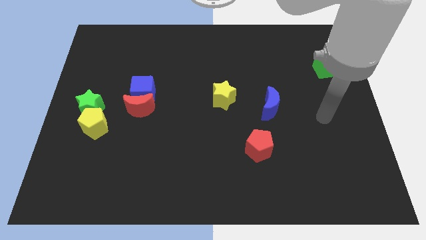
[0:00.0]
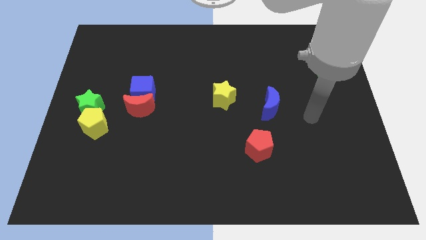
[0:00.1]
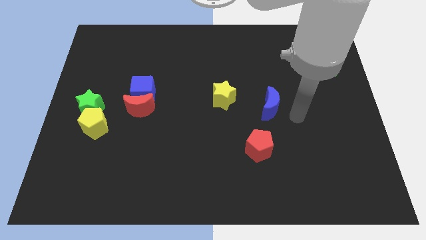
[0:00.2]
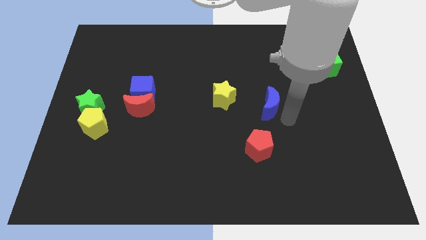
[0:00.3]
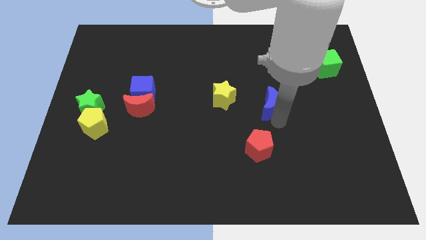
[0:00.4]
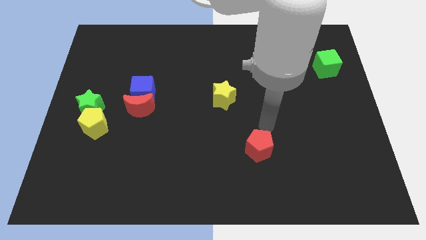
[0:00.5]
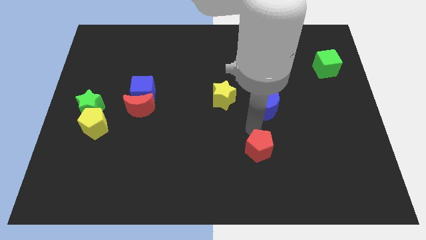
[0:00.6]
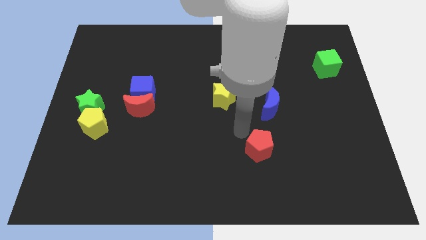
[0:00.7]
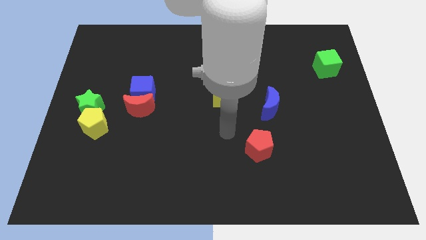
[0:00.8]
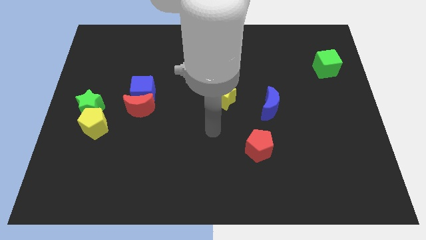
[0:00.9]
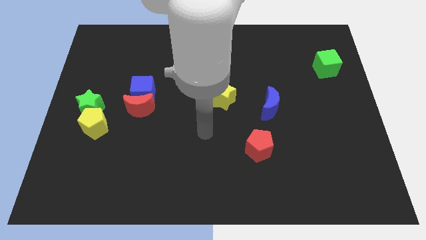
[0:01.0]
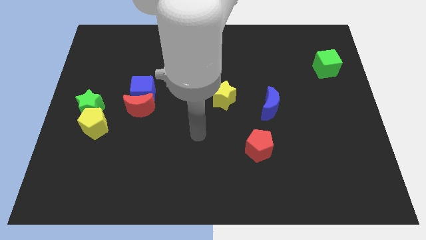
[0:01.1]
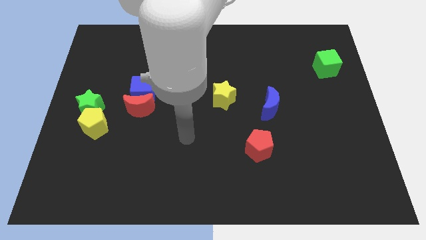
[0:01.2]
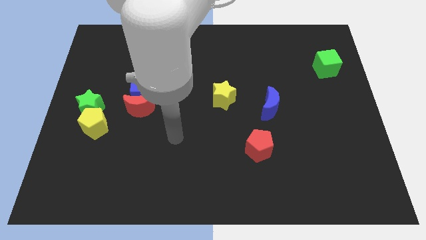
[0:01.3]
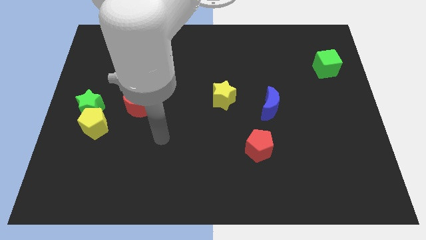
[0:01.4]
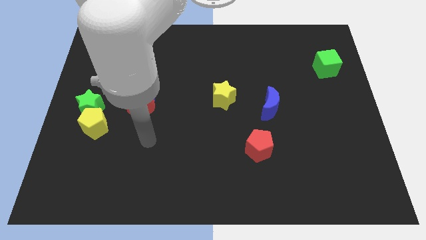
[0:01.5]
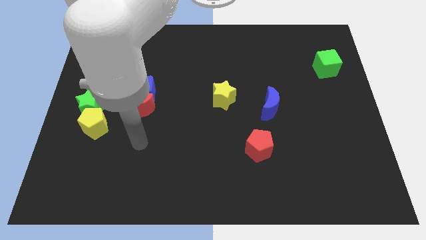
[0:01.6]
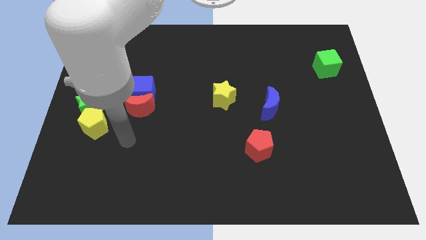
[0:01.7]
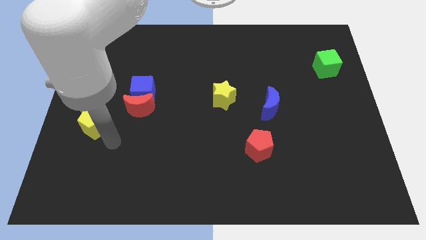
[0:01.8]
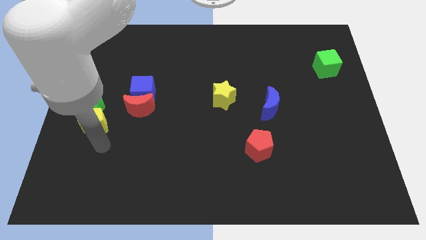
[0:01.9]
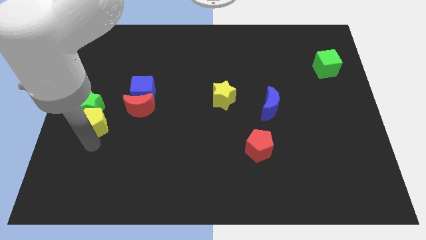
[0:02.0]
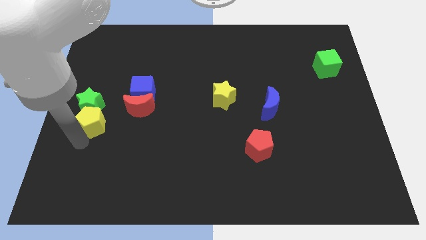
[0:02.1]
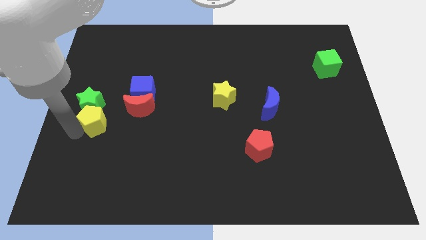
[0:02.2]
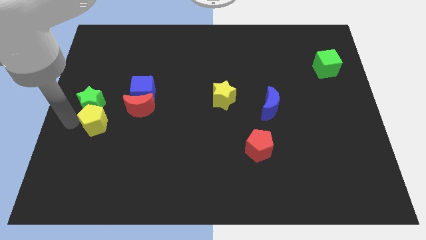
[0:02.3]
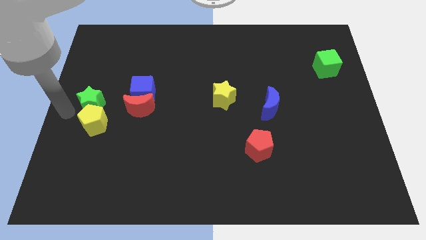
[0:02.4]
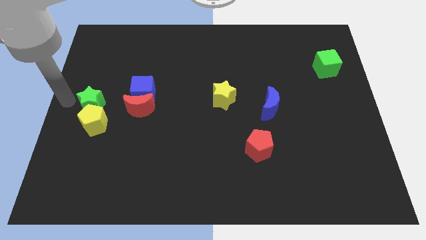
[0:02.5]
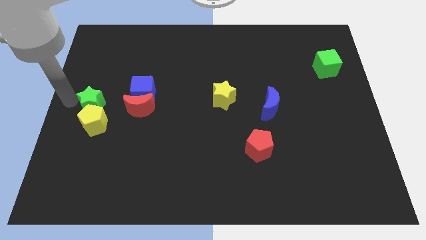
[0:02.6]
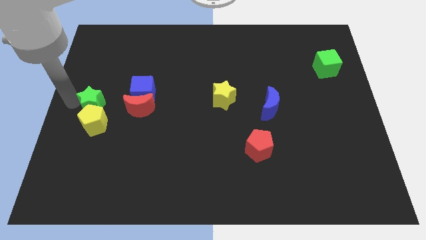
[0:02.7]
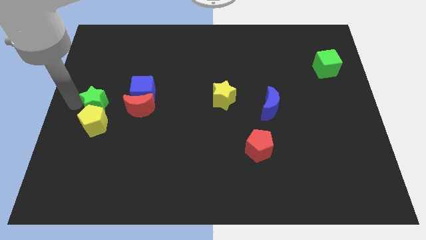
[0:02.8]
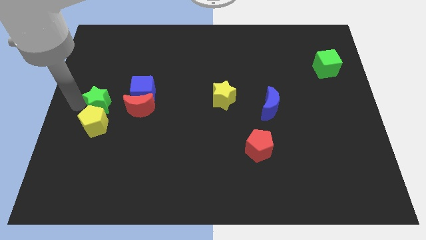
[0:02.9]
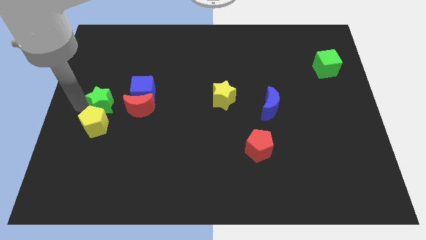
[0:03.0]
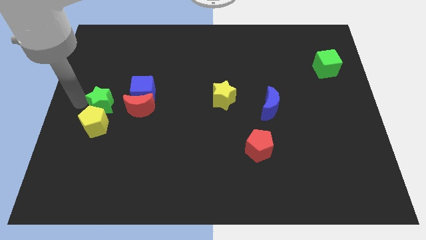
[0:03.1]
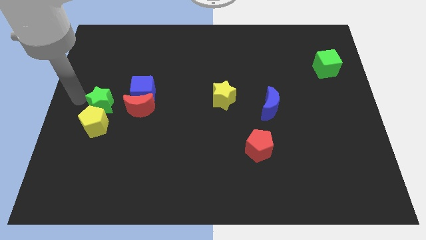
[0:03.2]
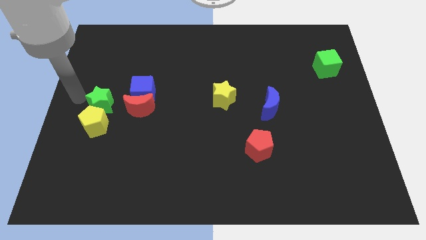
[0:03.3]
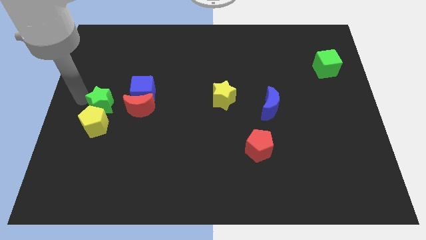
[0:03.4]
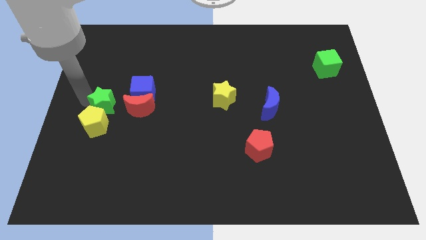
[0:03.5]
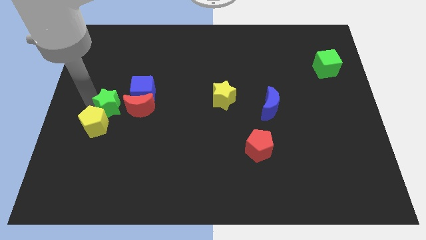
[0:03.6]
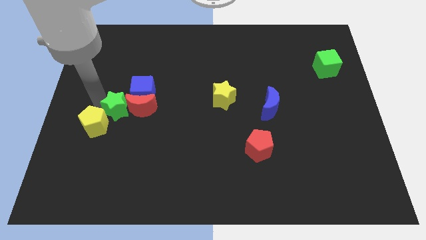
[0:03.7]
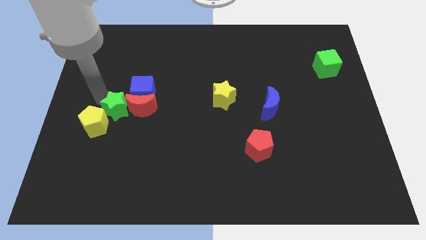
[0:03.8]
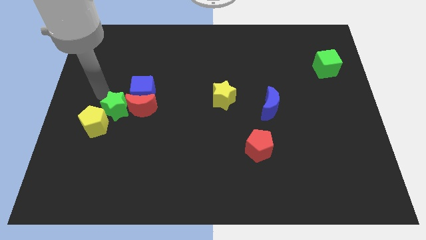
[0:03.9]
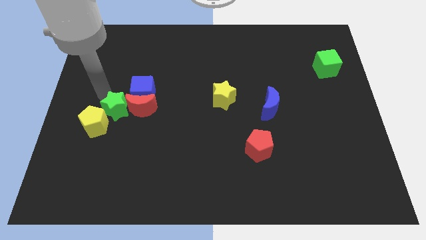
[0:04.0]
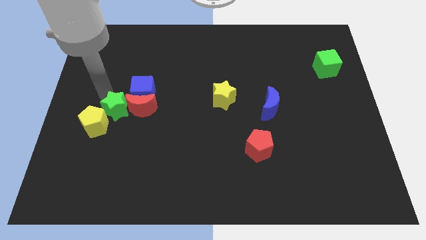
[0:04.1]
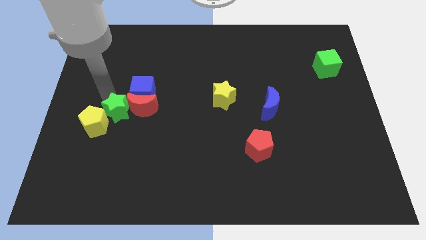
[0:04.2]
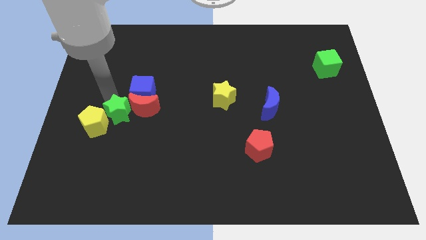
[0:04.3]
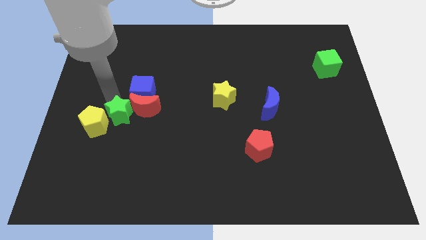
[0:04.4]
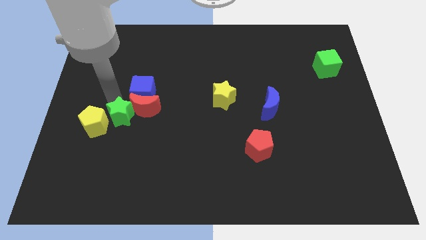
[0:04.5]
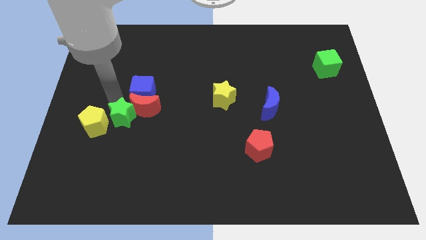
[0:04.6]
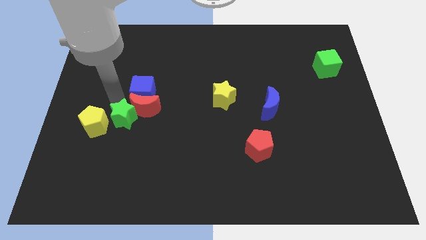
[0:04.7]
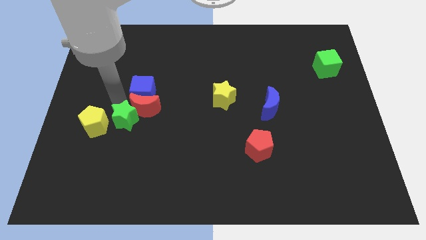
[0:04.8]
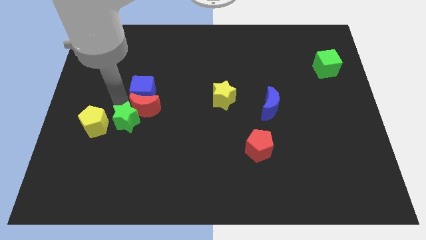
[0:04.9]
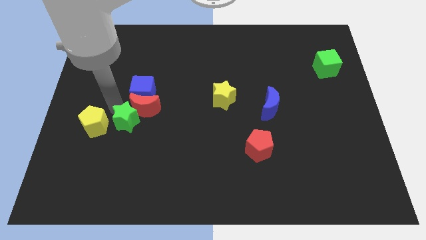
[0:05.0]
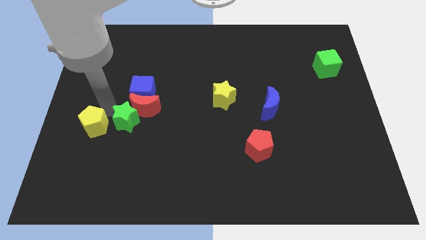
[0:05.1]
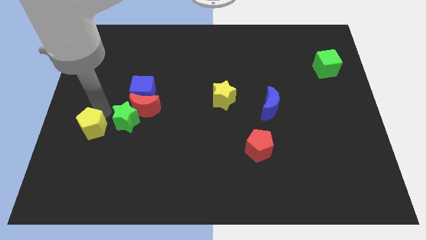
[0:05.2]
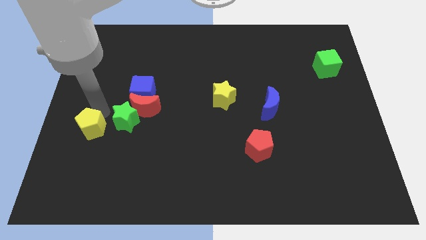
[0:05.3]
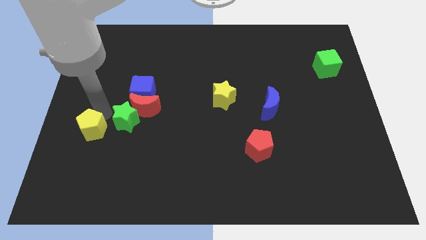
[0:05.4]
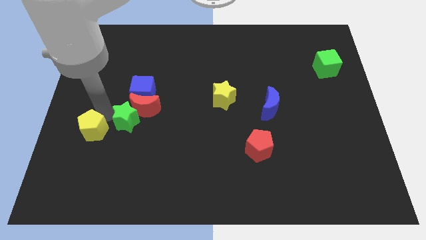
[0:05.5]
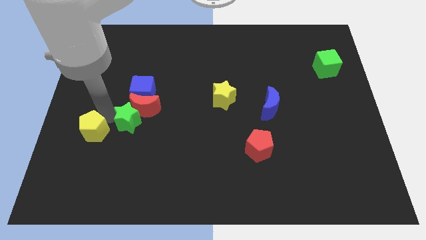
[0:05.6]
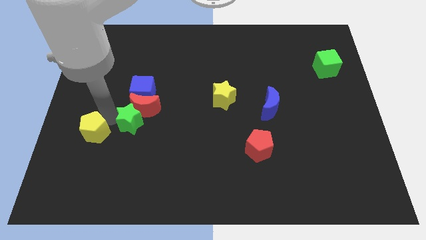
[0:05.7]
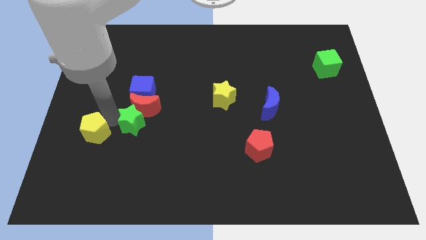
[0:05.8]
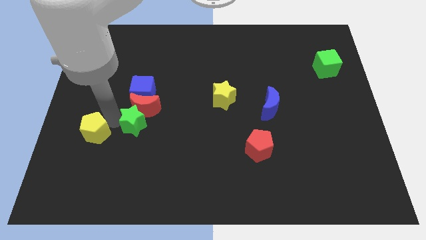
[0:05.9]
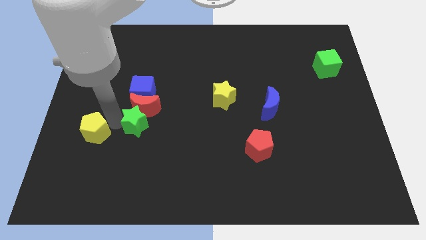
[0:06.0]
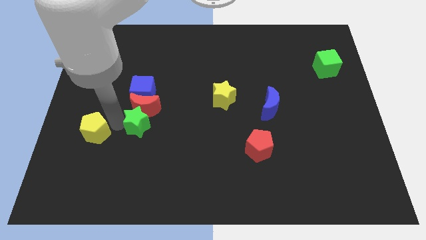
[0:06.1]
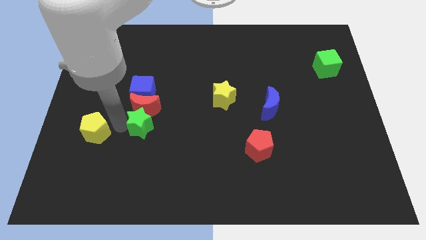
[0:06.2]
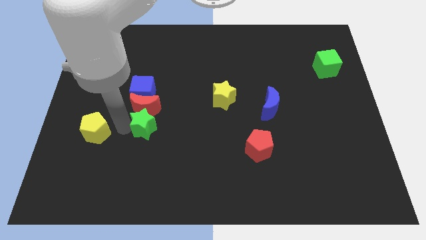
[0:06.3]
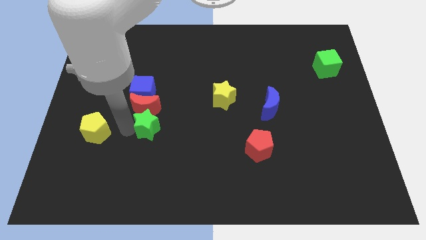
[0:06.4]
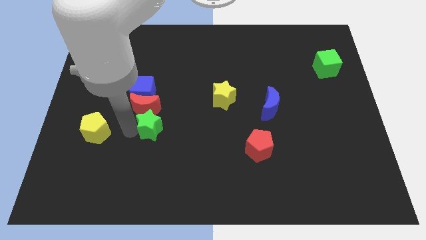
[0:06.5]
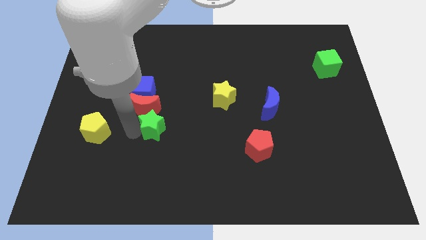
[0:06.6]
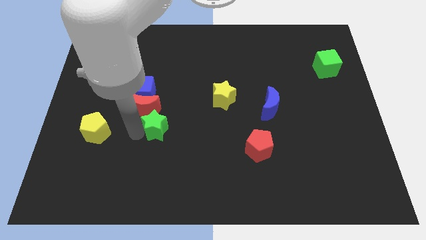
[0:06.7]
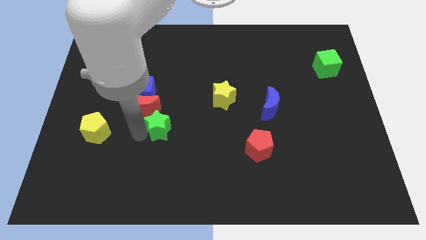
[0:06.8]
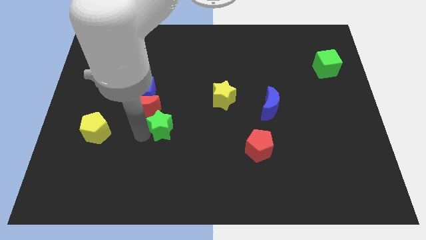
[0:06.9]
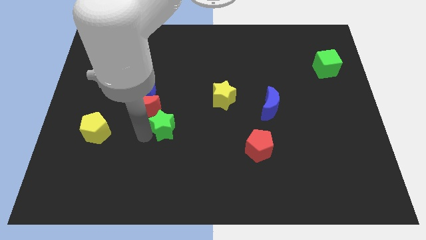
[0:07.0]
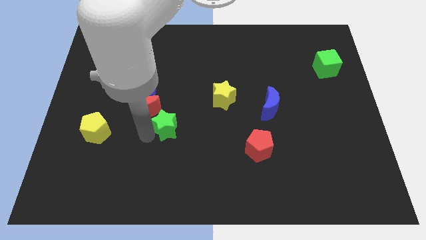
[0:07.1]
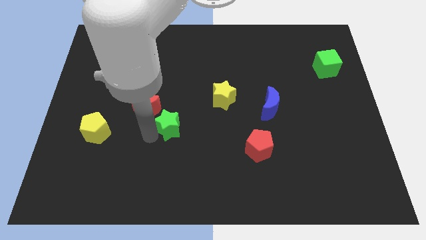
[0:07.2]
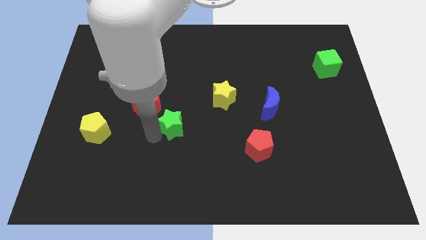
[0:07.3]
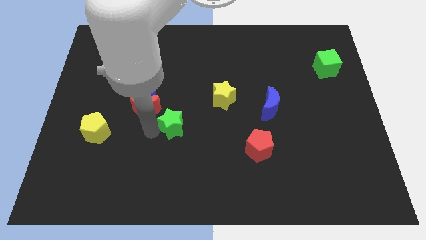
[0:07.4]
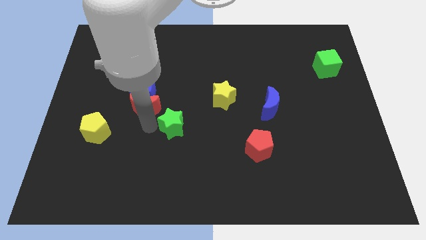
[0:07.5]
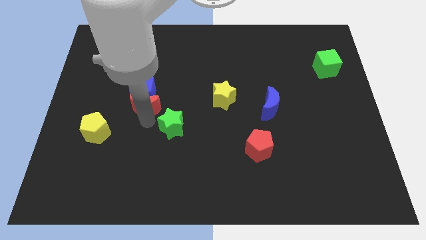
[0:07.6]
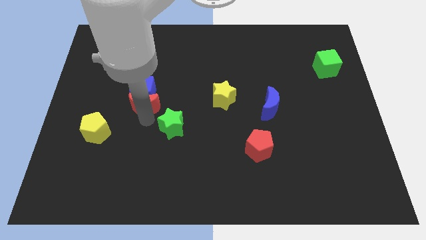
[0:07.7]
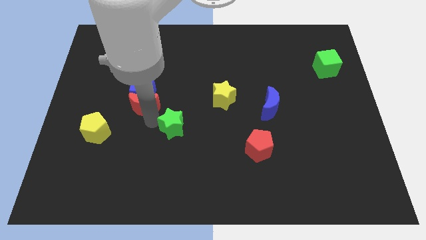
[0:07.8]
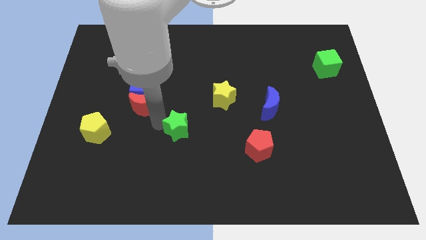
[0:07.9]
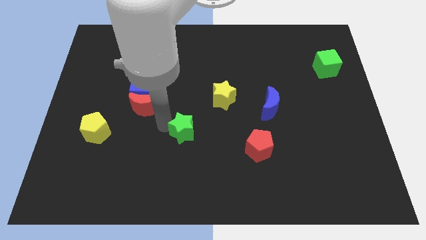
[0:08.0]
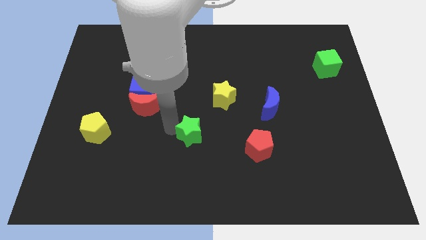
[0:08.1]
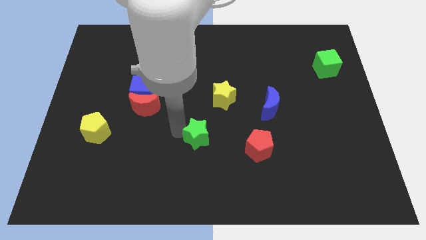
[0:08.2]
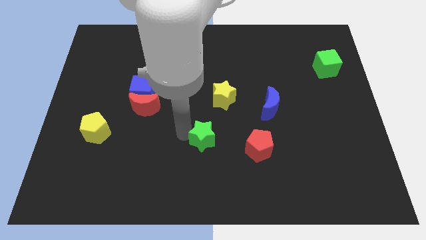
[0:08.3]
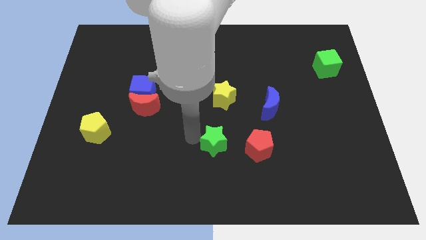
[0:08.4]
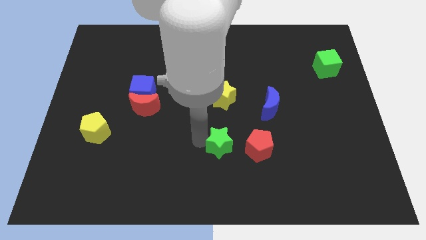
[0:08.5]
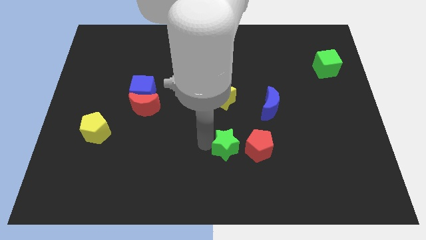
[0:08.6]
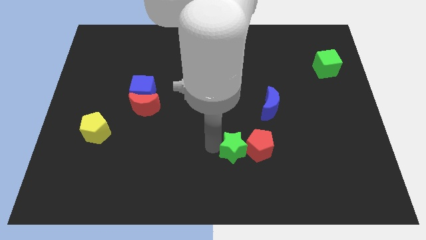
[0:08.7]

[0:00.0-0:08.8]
move the green star next to the red pentagon
